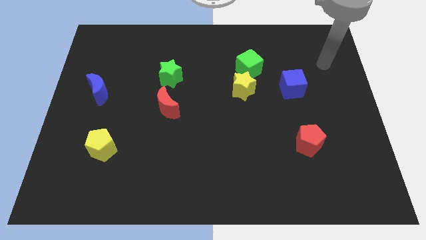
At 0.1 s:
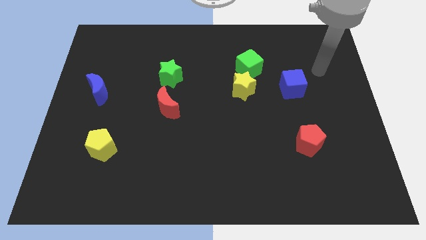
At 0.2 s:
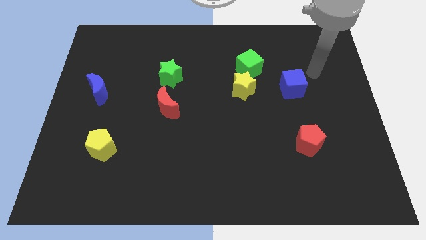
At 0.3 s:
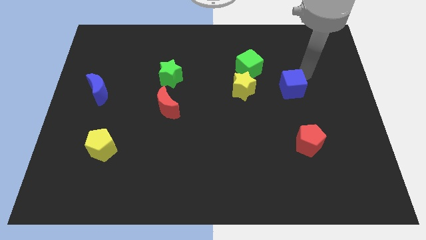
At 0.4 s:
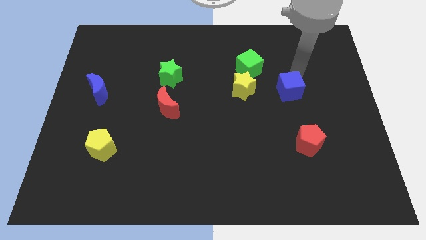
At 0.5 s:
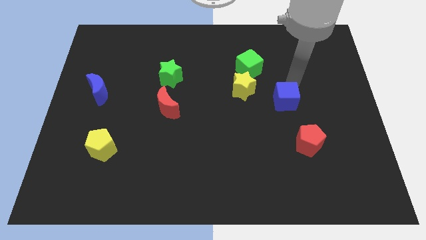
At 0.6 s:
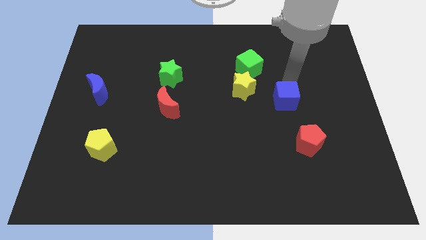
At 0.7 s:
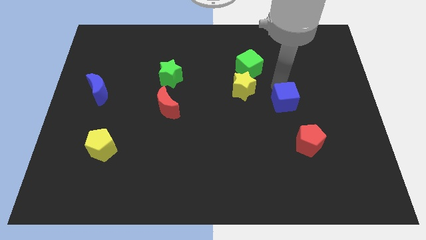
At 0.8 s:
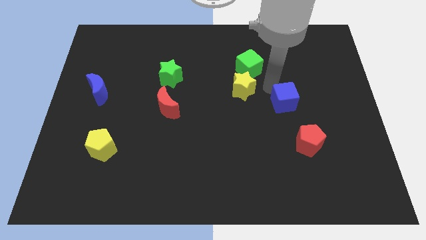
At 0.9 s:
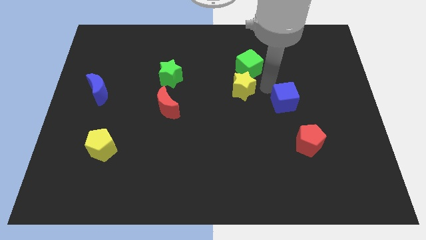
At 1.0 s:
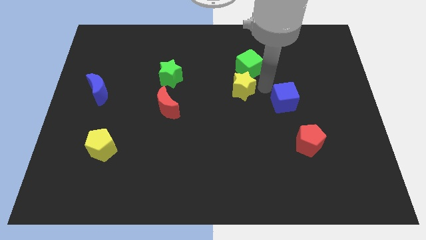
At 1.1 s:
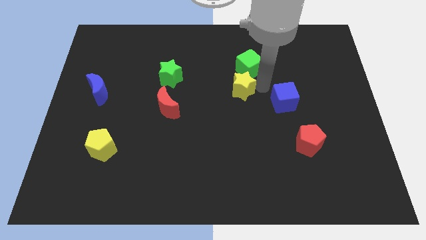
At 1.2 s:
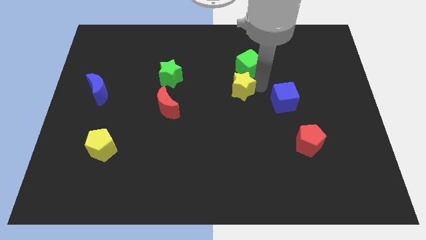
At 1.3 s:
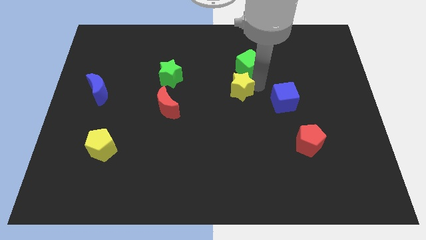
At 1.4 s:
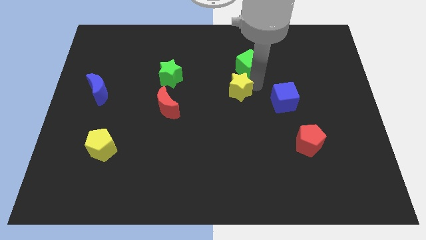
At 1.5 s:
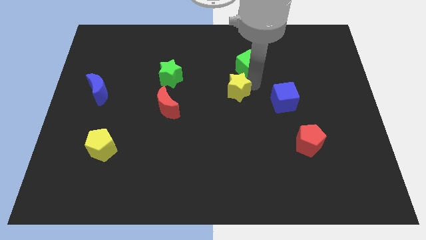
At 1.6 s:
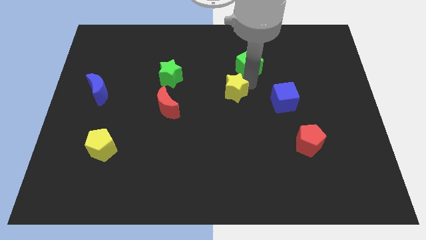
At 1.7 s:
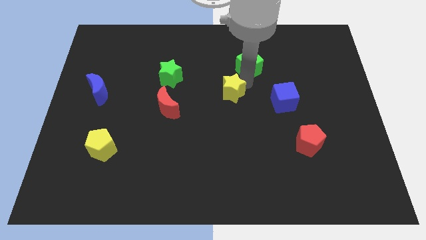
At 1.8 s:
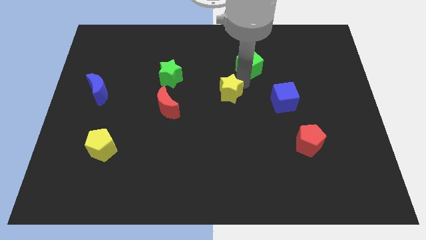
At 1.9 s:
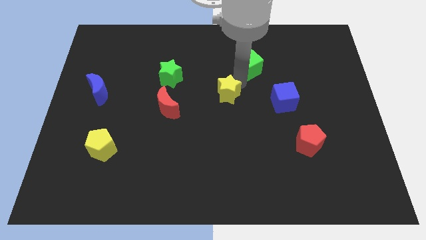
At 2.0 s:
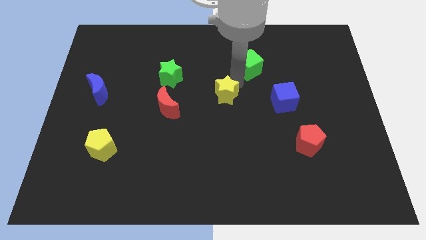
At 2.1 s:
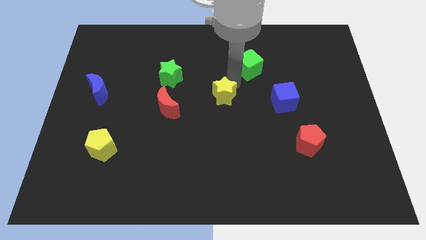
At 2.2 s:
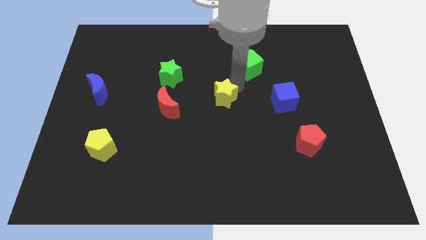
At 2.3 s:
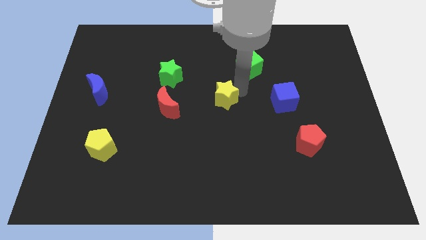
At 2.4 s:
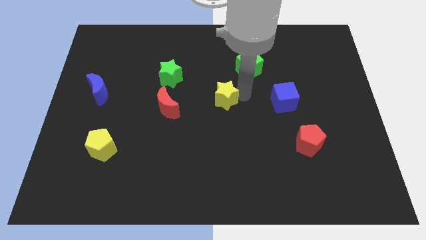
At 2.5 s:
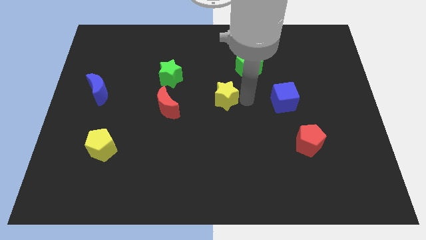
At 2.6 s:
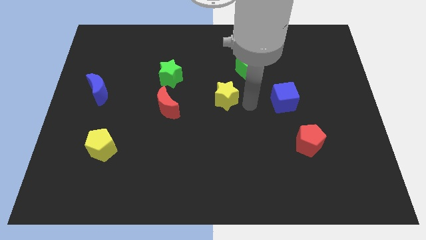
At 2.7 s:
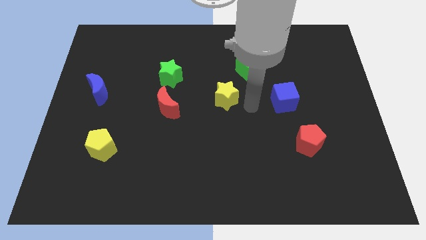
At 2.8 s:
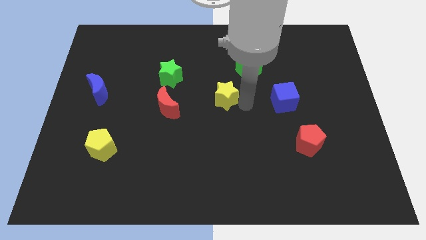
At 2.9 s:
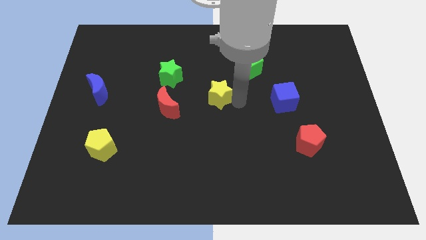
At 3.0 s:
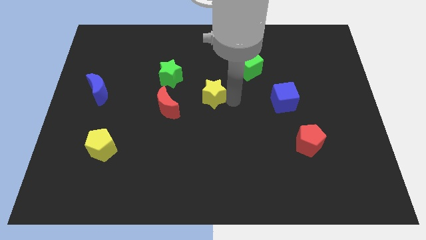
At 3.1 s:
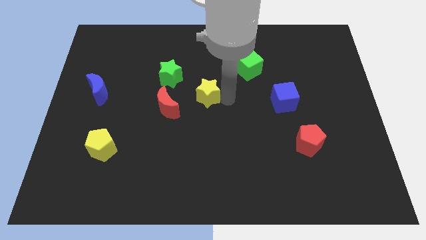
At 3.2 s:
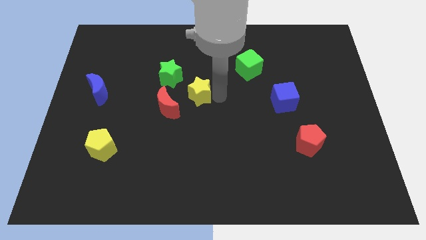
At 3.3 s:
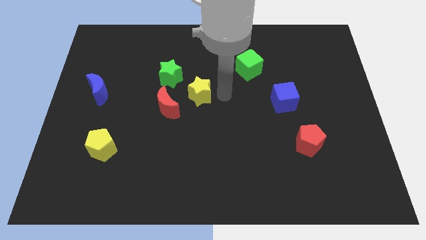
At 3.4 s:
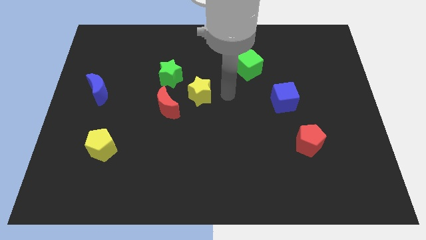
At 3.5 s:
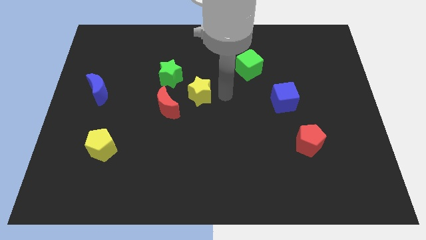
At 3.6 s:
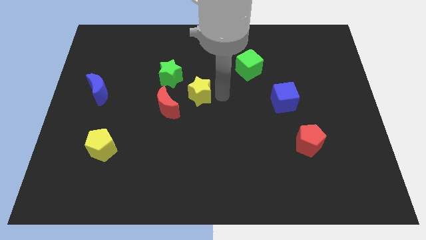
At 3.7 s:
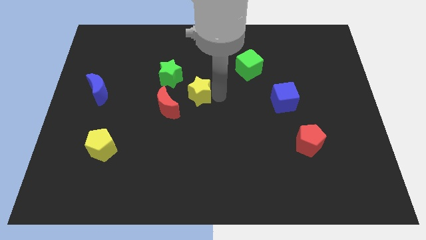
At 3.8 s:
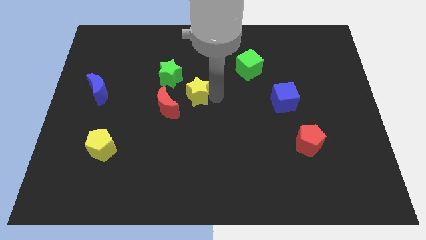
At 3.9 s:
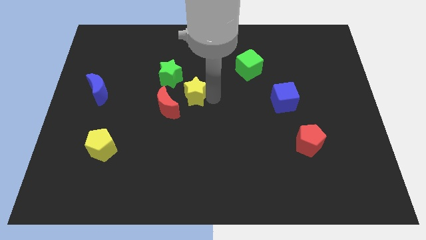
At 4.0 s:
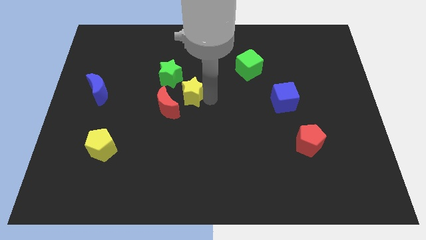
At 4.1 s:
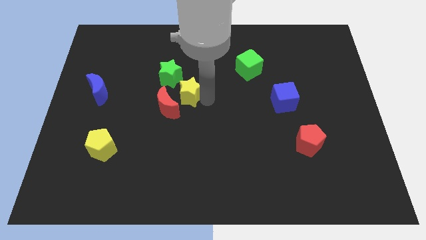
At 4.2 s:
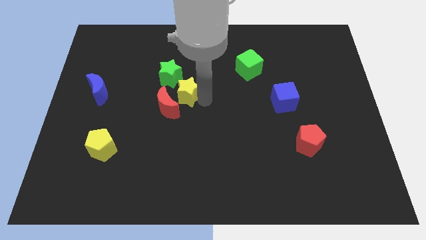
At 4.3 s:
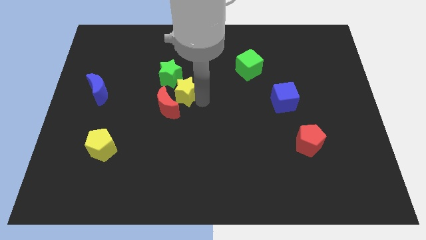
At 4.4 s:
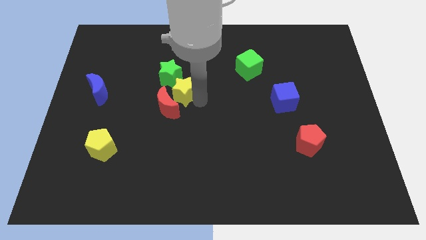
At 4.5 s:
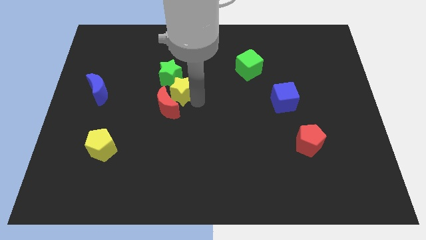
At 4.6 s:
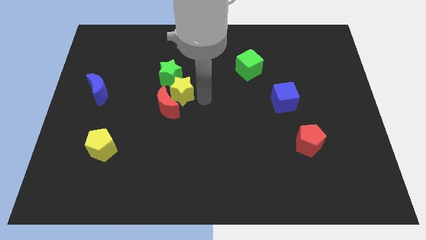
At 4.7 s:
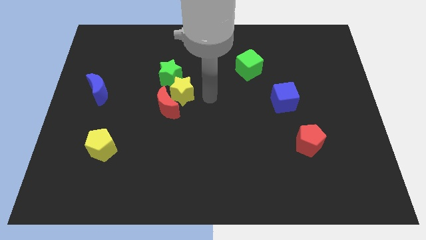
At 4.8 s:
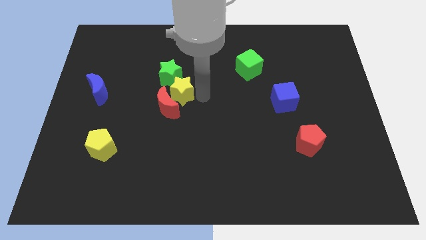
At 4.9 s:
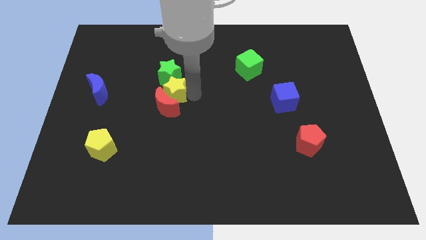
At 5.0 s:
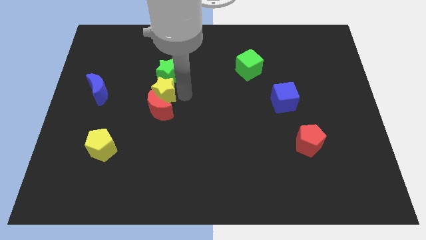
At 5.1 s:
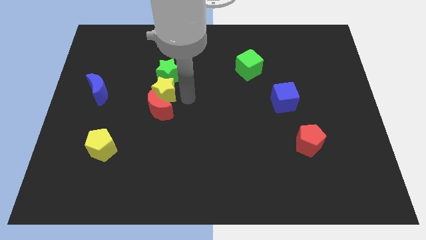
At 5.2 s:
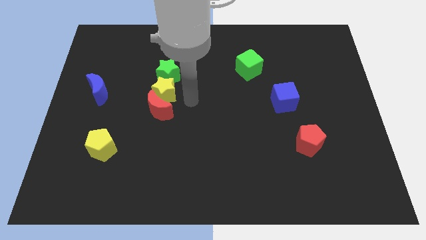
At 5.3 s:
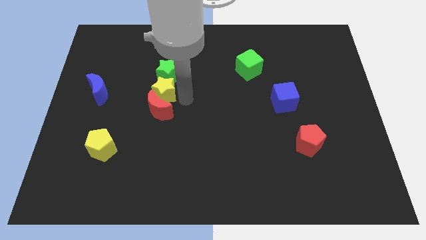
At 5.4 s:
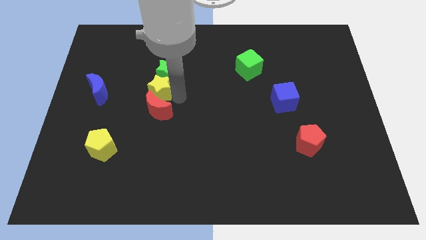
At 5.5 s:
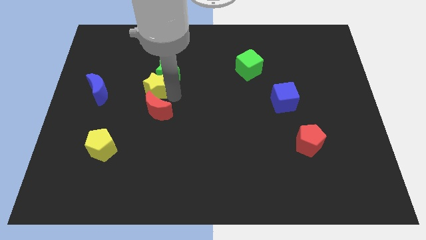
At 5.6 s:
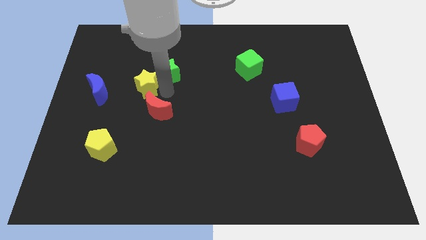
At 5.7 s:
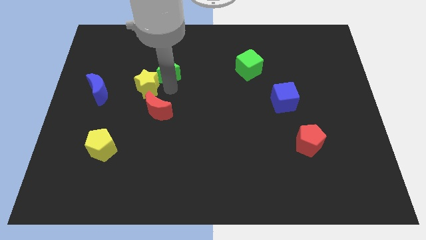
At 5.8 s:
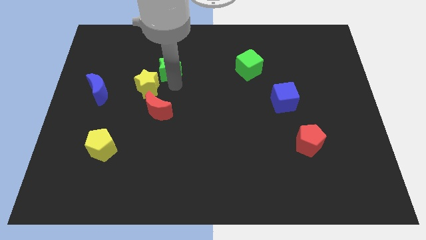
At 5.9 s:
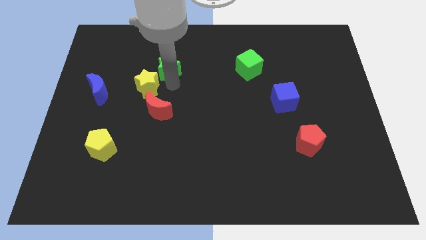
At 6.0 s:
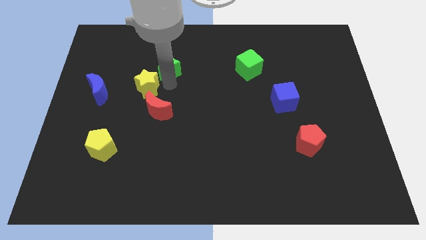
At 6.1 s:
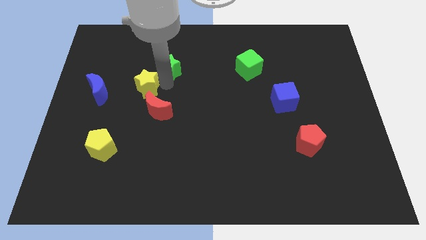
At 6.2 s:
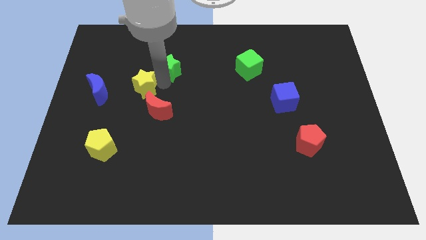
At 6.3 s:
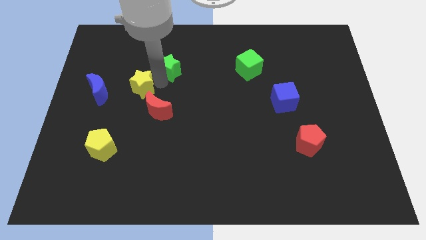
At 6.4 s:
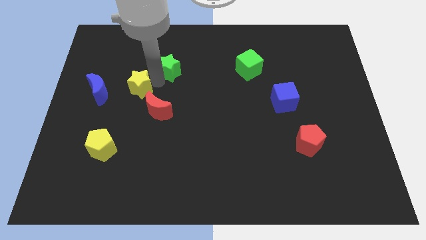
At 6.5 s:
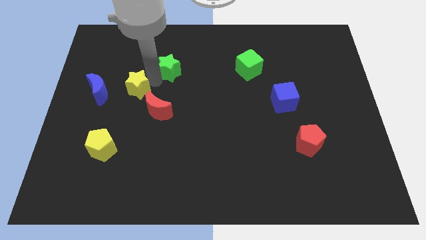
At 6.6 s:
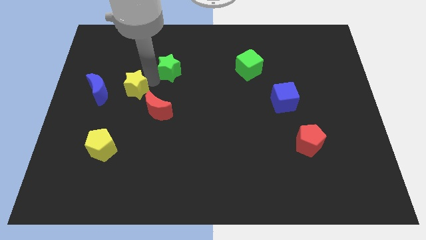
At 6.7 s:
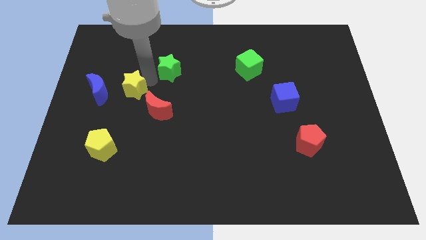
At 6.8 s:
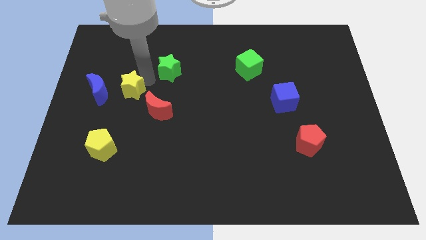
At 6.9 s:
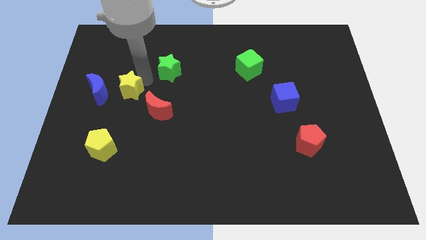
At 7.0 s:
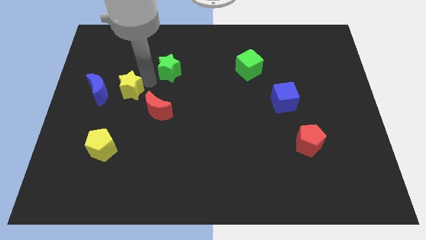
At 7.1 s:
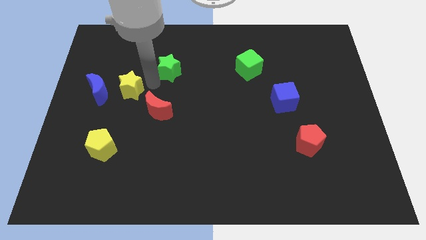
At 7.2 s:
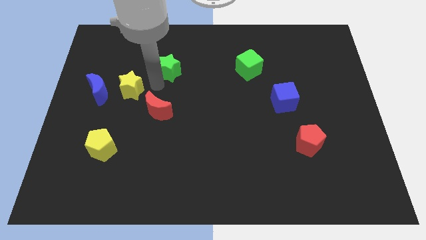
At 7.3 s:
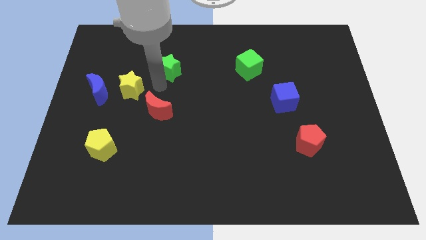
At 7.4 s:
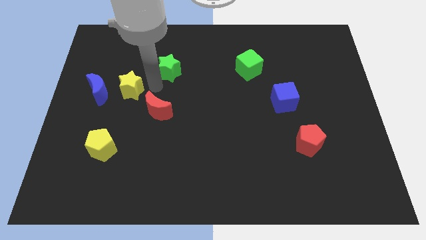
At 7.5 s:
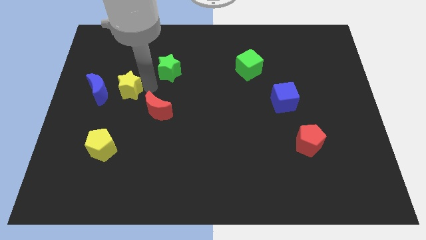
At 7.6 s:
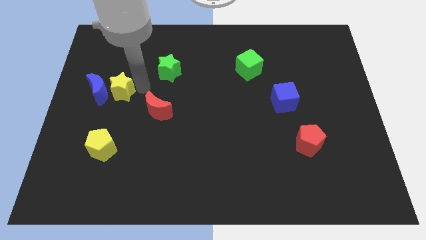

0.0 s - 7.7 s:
push the yellow star close to the blue moon
